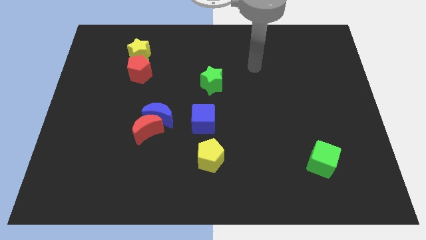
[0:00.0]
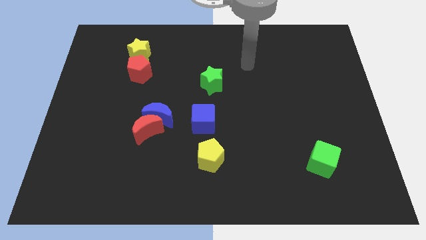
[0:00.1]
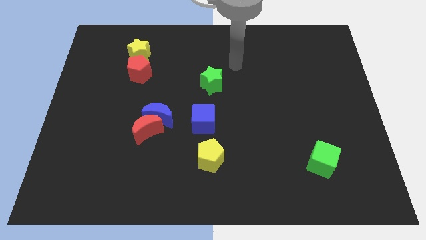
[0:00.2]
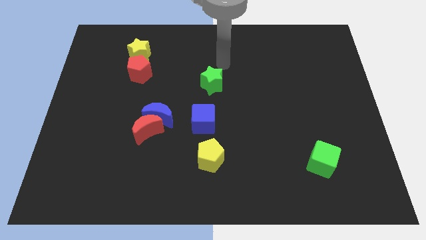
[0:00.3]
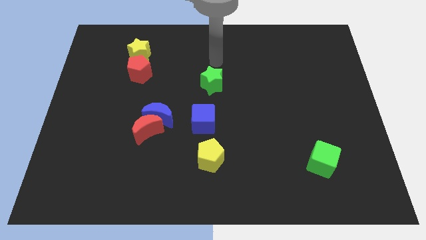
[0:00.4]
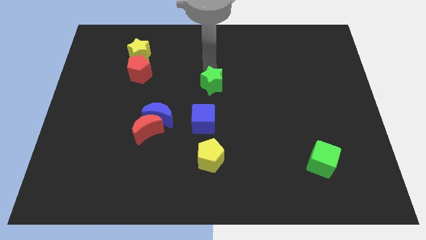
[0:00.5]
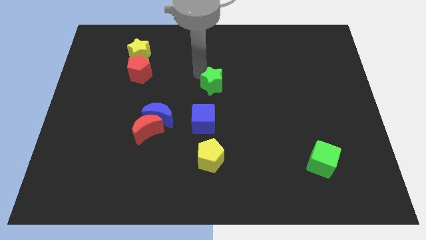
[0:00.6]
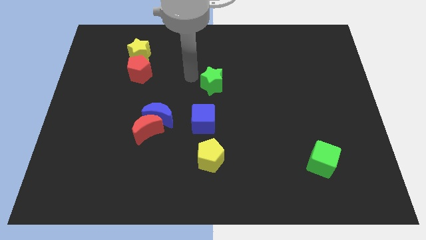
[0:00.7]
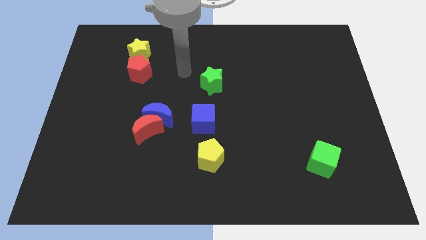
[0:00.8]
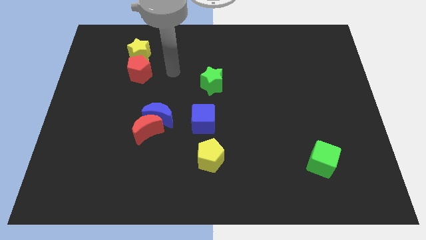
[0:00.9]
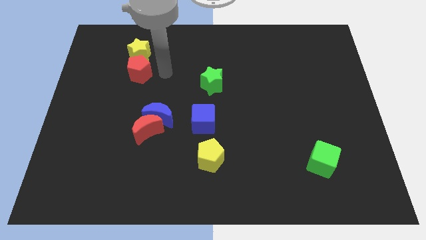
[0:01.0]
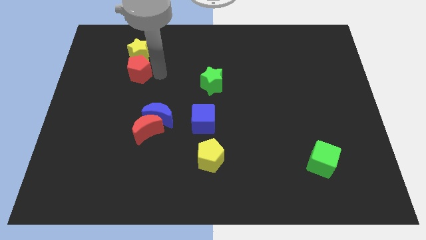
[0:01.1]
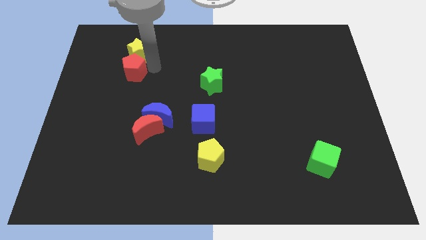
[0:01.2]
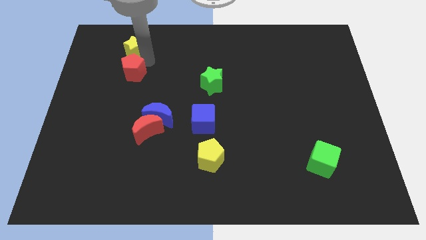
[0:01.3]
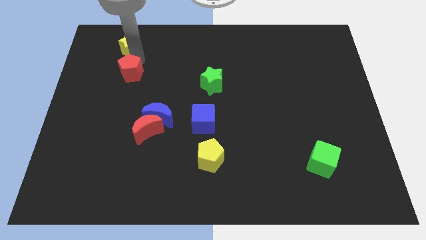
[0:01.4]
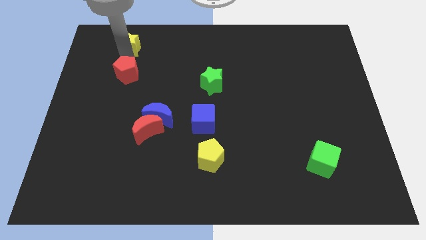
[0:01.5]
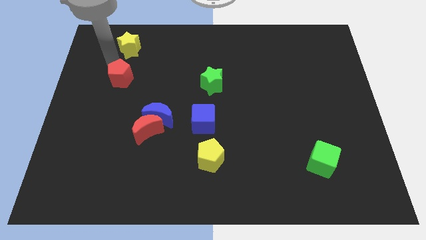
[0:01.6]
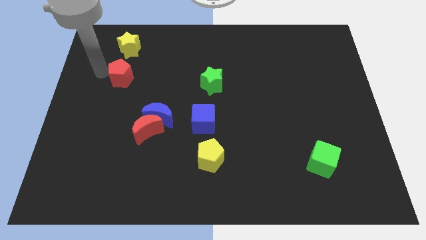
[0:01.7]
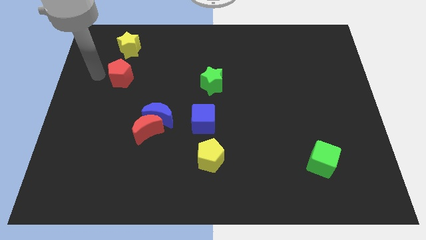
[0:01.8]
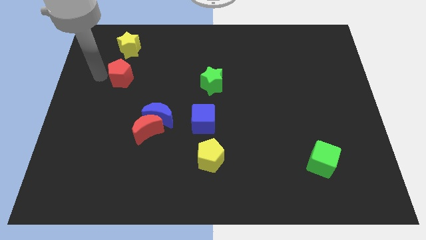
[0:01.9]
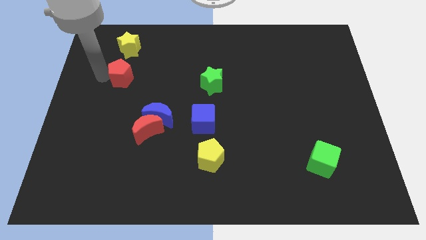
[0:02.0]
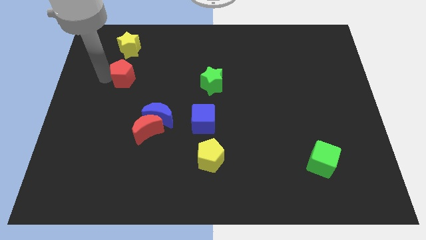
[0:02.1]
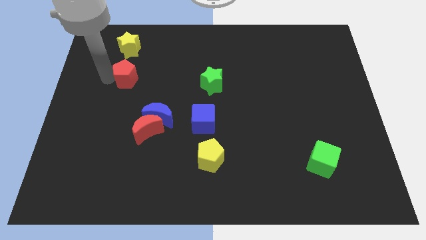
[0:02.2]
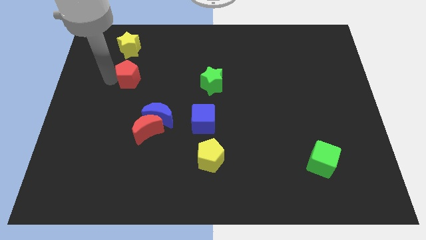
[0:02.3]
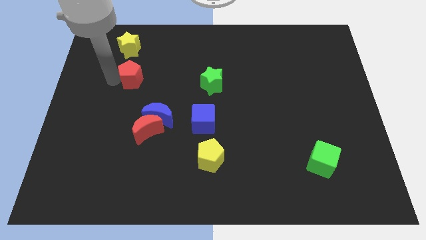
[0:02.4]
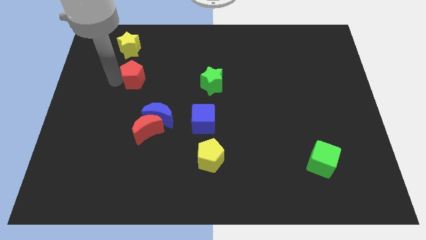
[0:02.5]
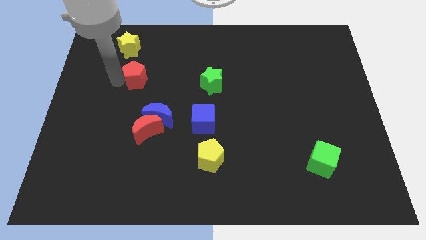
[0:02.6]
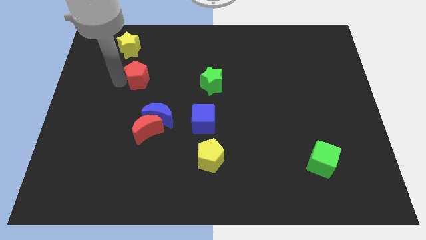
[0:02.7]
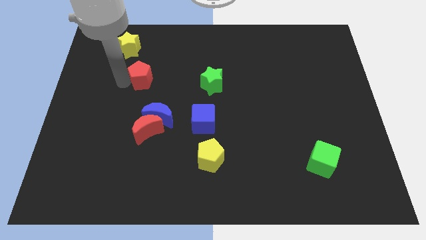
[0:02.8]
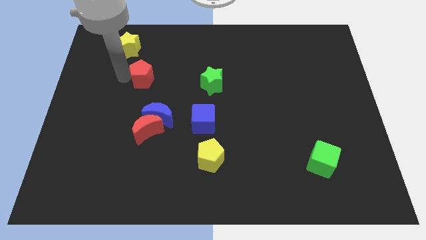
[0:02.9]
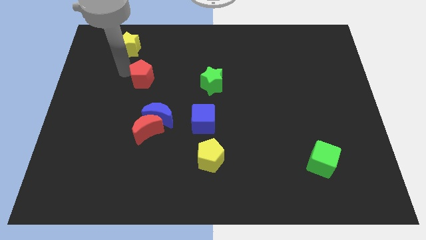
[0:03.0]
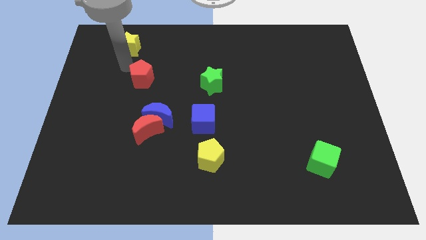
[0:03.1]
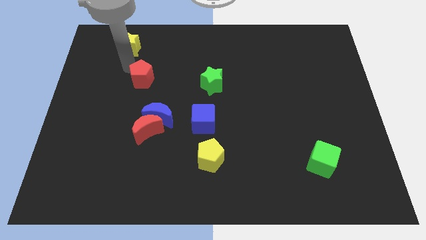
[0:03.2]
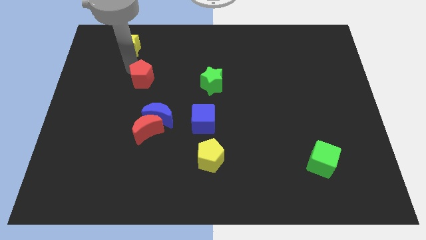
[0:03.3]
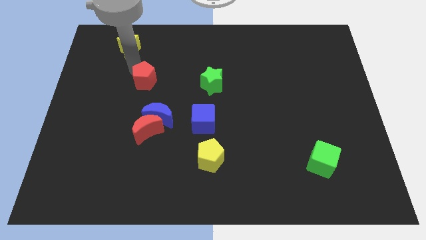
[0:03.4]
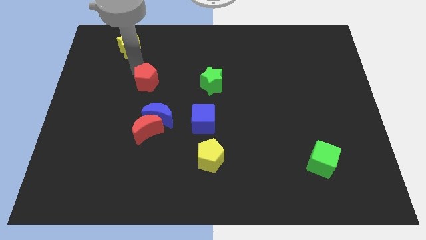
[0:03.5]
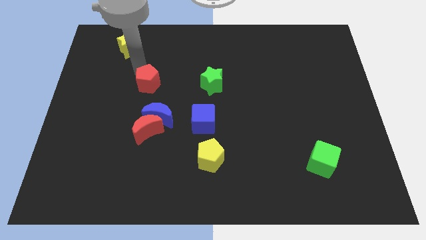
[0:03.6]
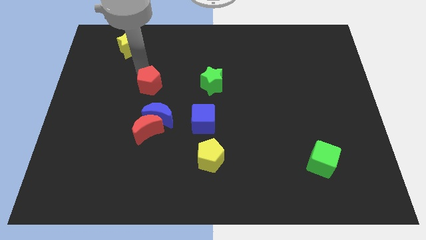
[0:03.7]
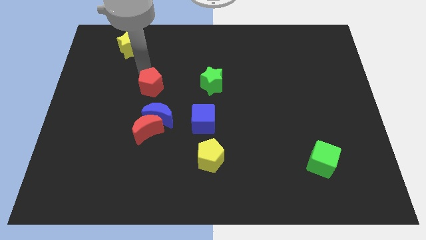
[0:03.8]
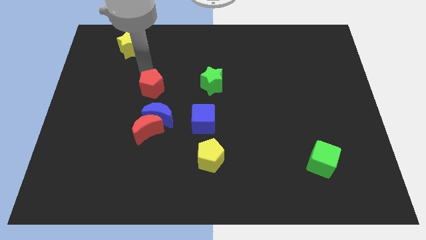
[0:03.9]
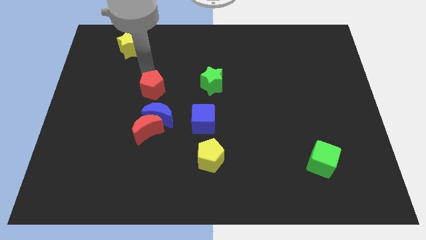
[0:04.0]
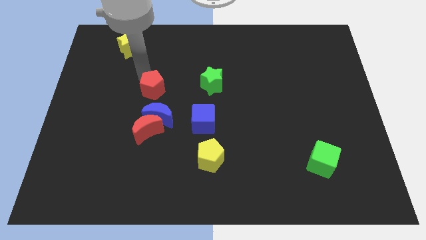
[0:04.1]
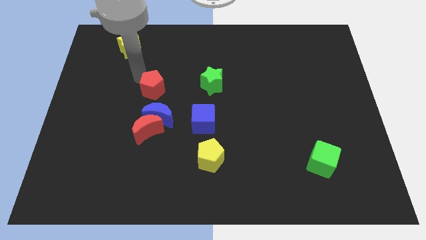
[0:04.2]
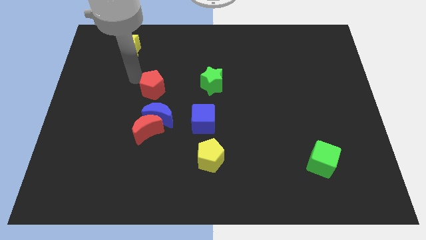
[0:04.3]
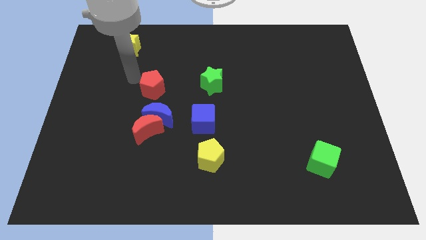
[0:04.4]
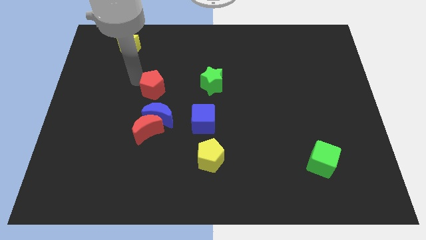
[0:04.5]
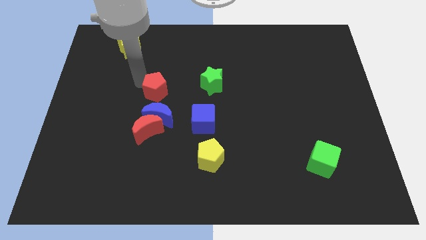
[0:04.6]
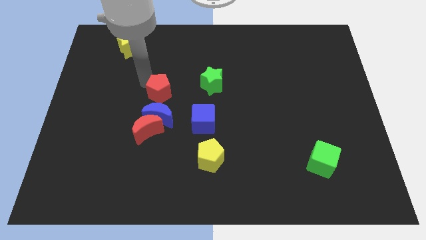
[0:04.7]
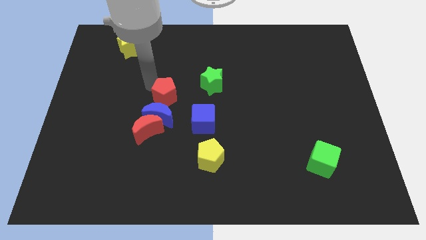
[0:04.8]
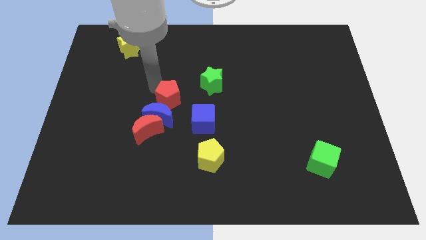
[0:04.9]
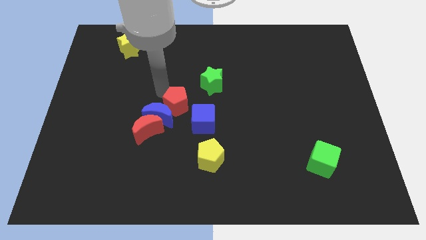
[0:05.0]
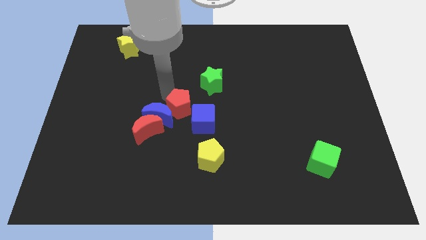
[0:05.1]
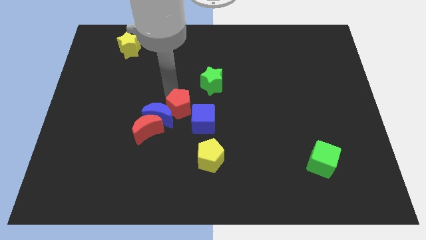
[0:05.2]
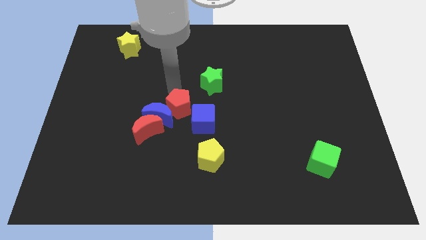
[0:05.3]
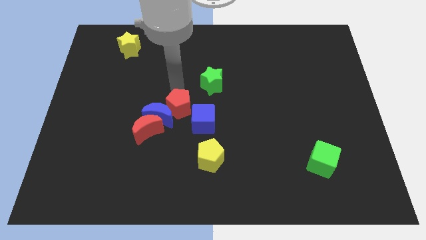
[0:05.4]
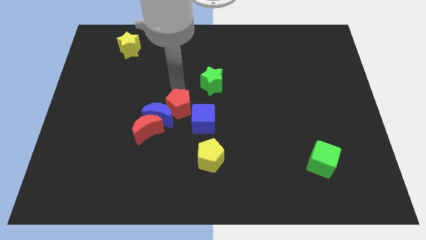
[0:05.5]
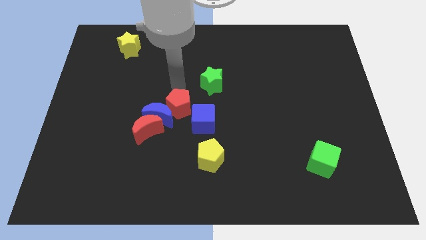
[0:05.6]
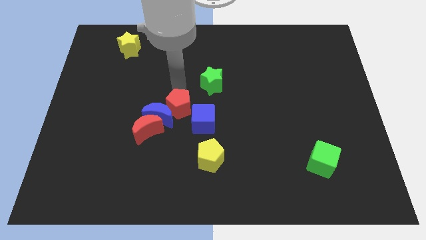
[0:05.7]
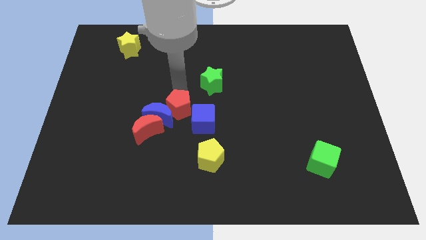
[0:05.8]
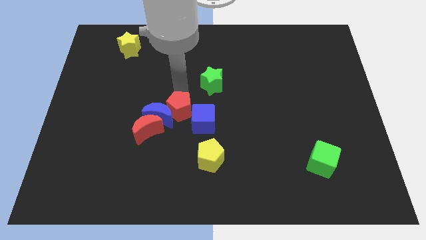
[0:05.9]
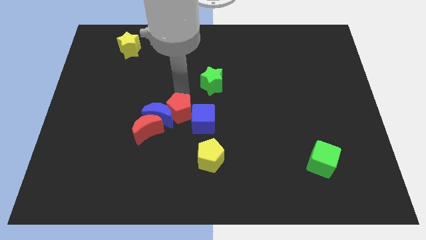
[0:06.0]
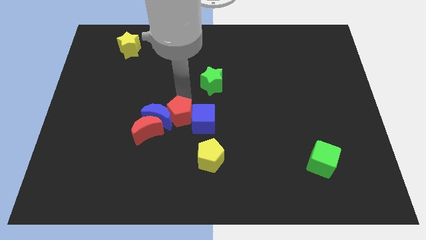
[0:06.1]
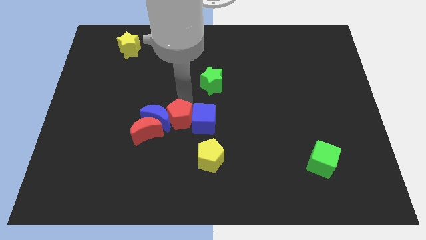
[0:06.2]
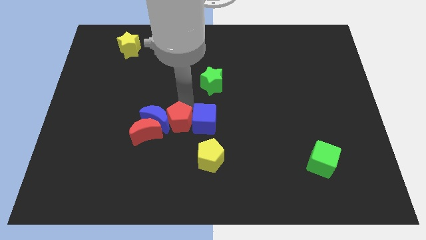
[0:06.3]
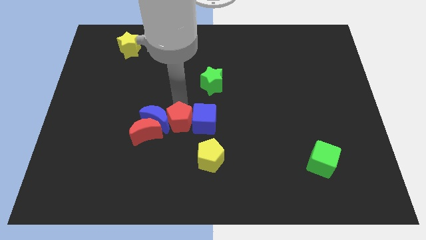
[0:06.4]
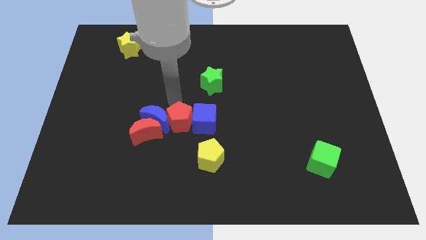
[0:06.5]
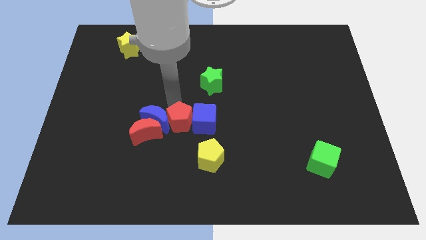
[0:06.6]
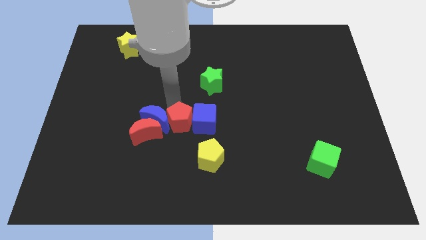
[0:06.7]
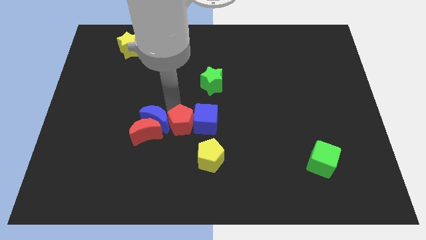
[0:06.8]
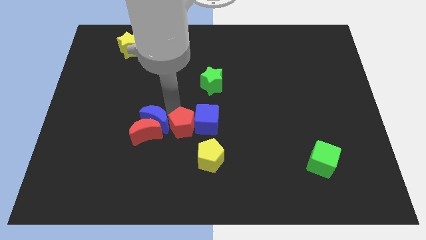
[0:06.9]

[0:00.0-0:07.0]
push the red pentagon downwards and to the right

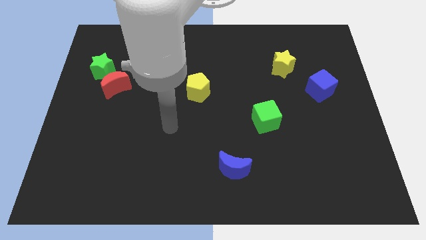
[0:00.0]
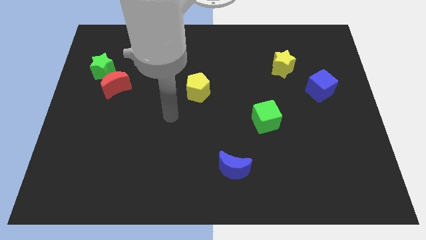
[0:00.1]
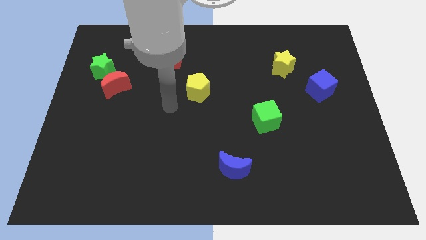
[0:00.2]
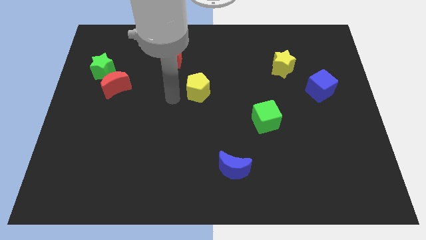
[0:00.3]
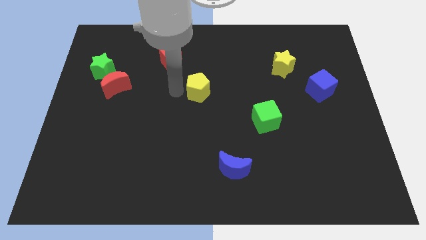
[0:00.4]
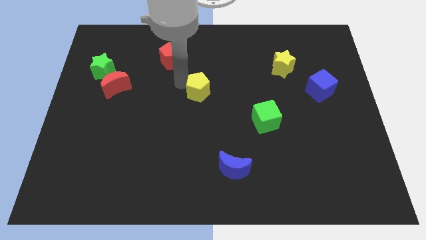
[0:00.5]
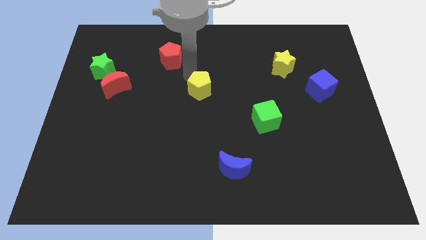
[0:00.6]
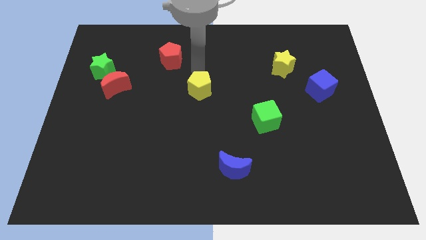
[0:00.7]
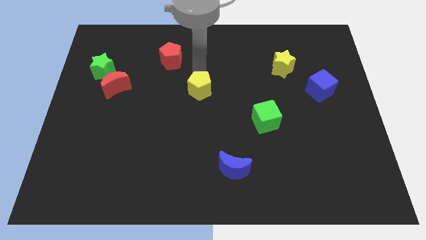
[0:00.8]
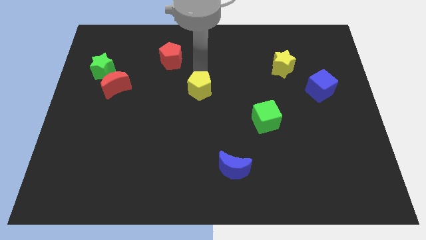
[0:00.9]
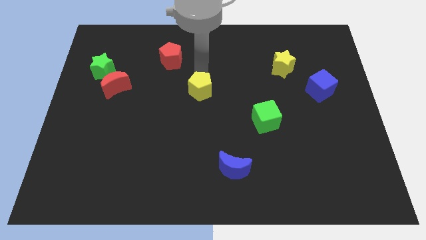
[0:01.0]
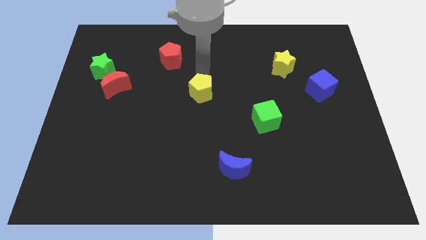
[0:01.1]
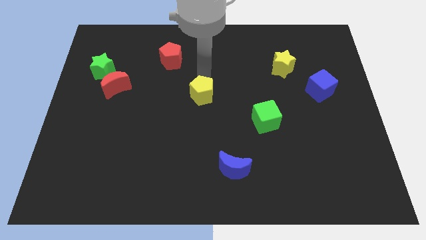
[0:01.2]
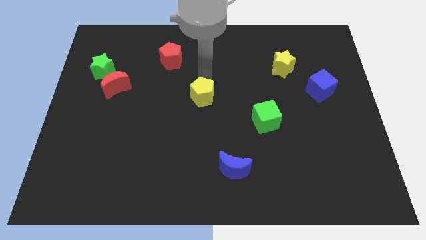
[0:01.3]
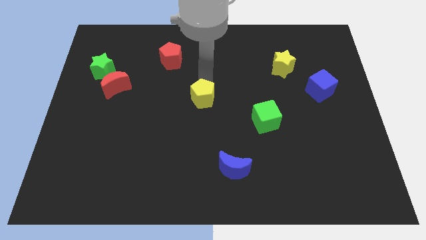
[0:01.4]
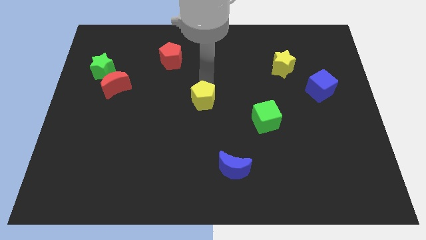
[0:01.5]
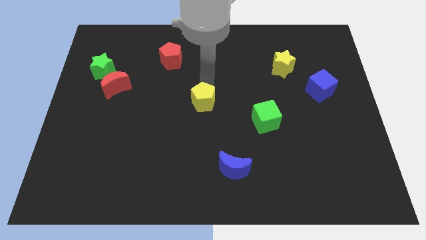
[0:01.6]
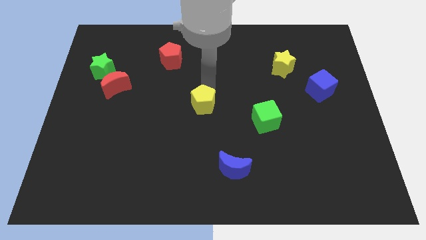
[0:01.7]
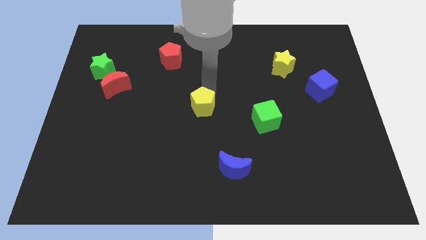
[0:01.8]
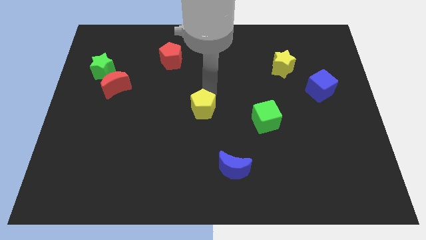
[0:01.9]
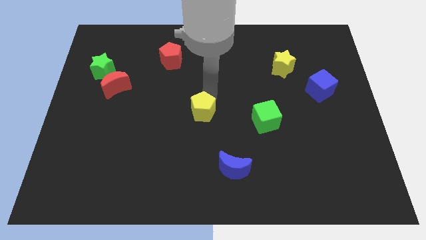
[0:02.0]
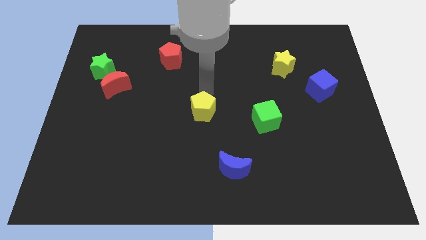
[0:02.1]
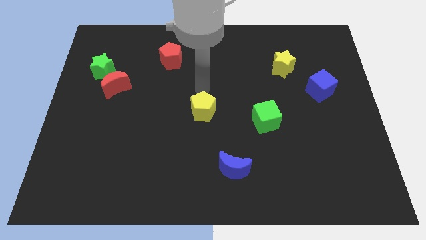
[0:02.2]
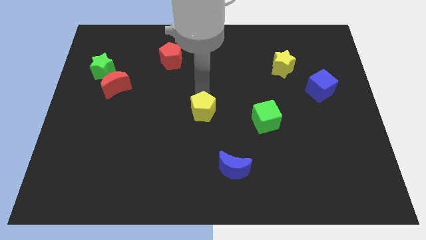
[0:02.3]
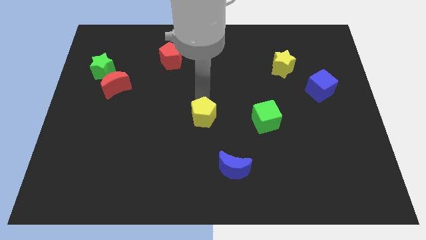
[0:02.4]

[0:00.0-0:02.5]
push the yellow pentagon down a little
